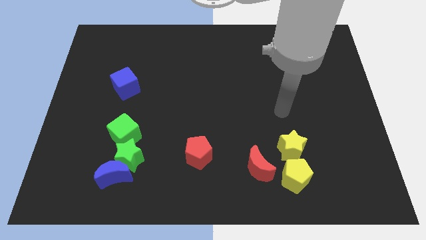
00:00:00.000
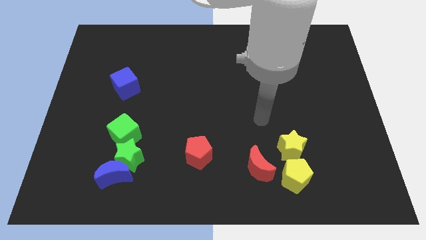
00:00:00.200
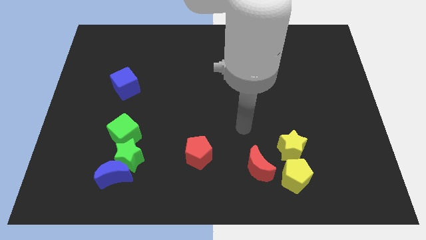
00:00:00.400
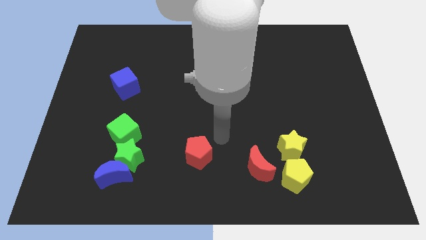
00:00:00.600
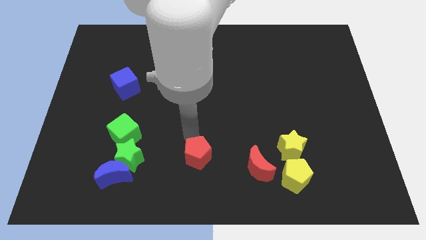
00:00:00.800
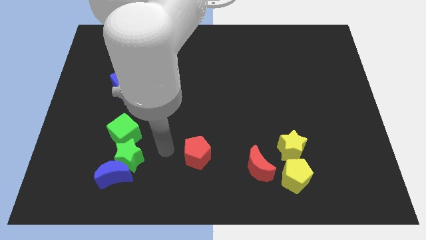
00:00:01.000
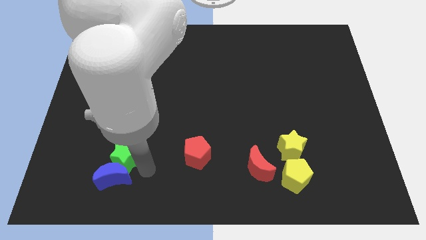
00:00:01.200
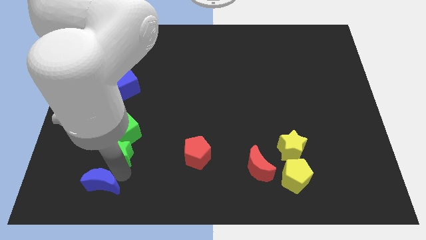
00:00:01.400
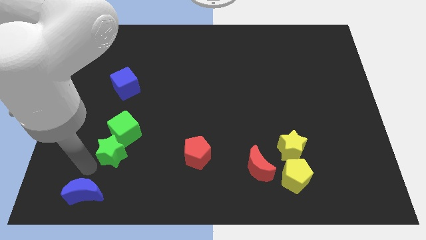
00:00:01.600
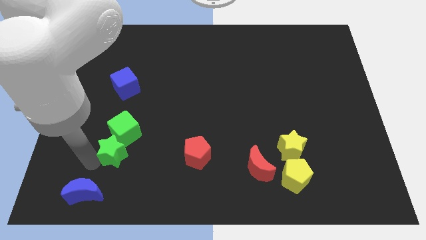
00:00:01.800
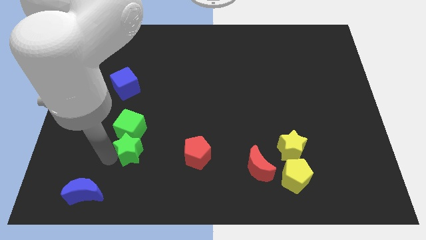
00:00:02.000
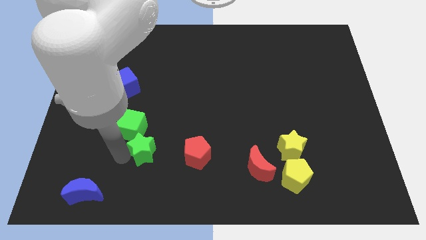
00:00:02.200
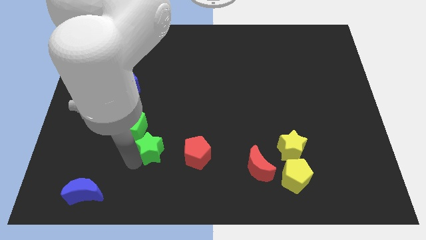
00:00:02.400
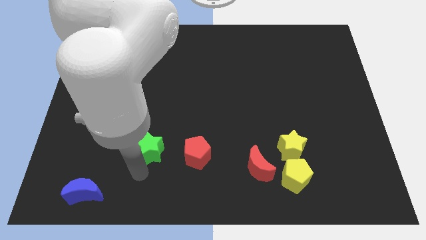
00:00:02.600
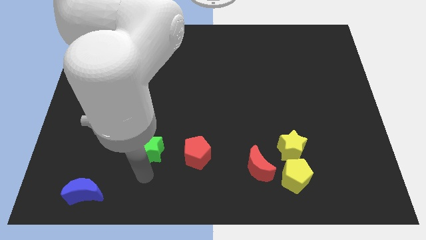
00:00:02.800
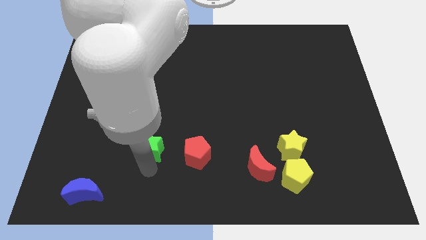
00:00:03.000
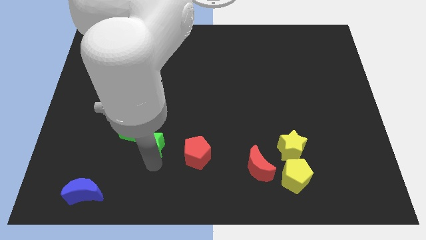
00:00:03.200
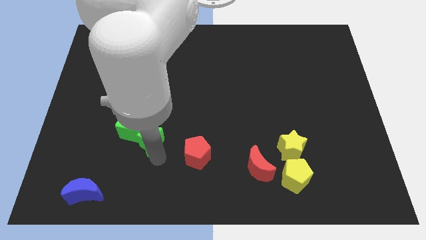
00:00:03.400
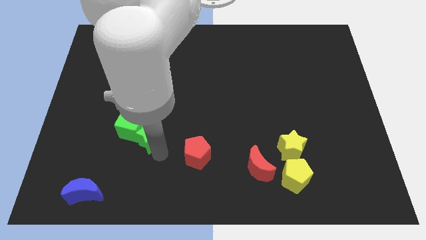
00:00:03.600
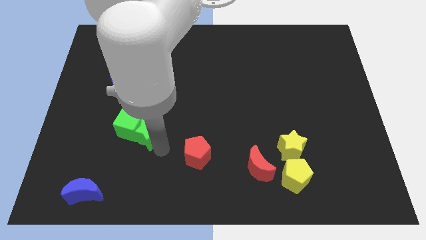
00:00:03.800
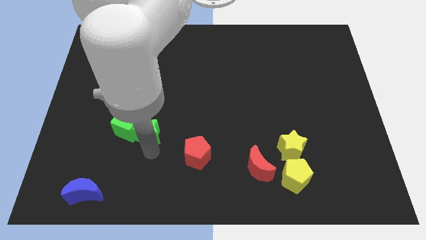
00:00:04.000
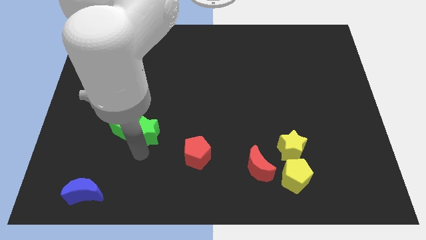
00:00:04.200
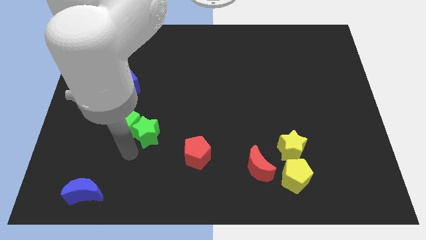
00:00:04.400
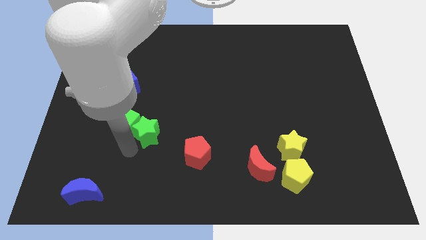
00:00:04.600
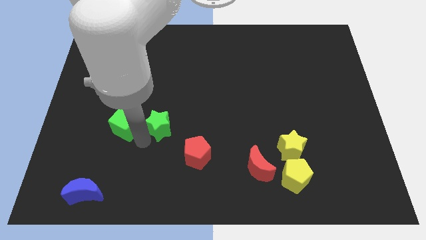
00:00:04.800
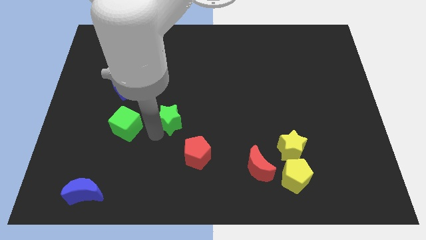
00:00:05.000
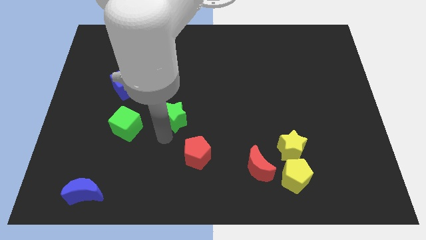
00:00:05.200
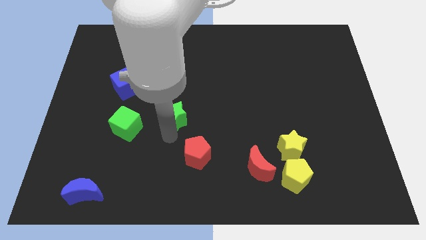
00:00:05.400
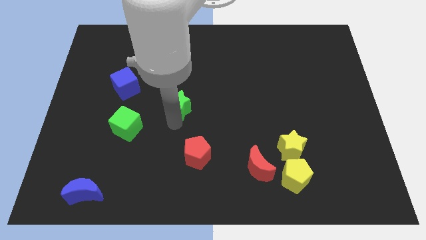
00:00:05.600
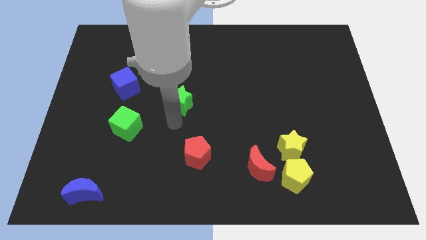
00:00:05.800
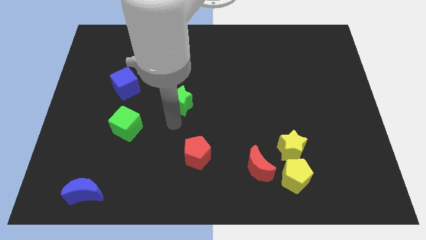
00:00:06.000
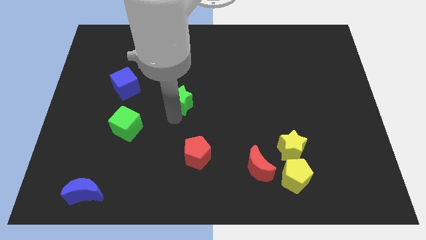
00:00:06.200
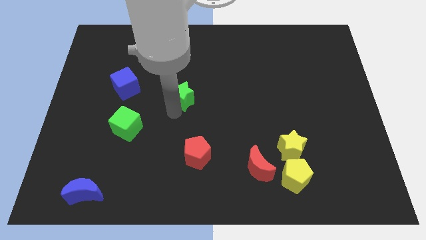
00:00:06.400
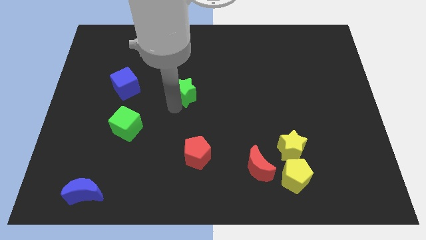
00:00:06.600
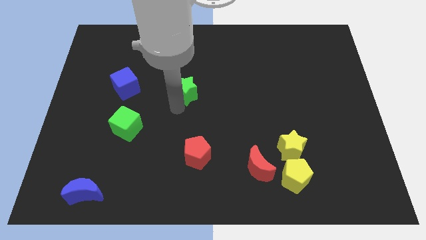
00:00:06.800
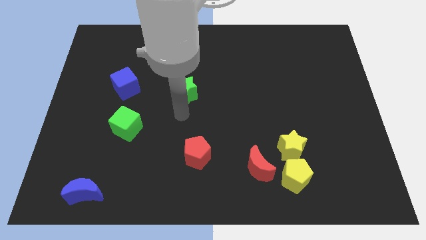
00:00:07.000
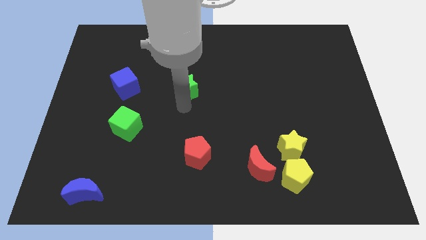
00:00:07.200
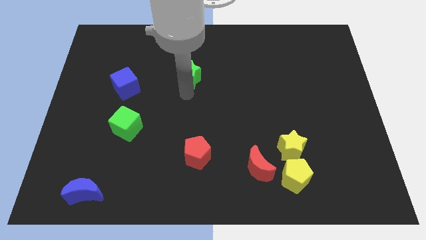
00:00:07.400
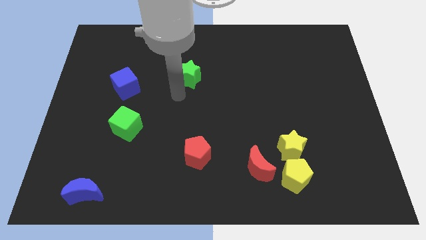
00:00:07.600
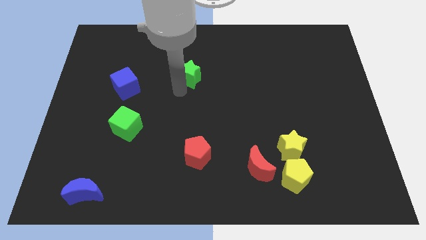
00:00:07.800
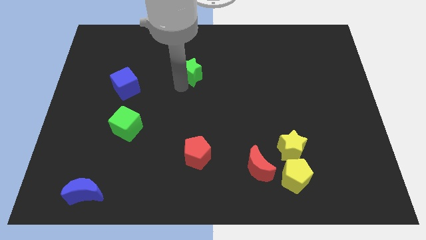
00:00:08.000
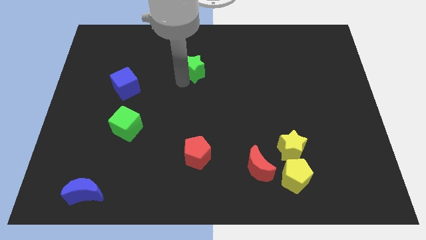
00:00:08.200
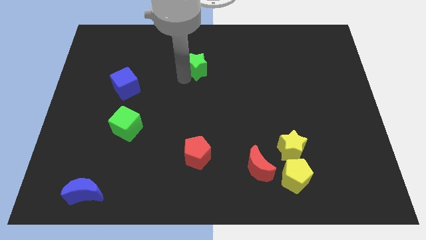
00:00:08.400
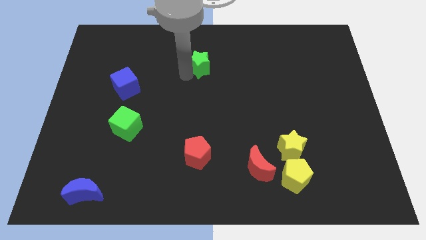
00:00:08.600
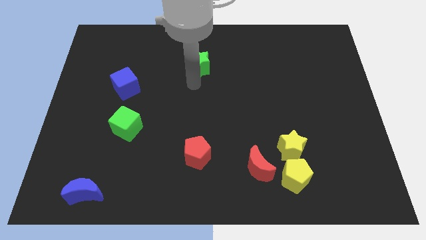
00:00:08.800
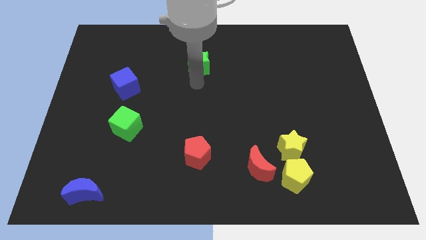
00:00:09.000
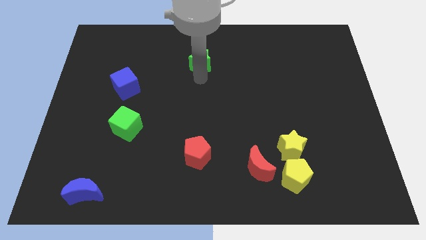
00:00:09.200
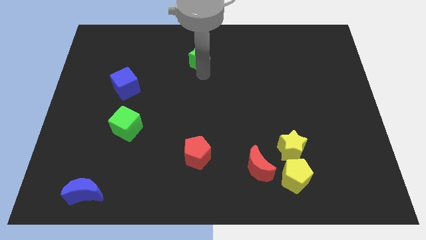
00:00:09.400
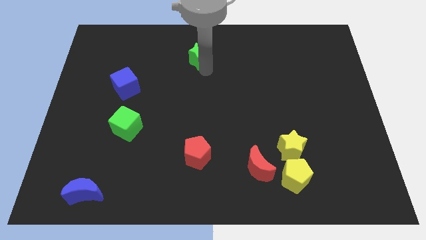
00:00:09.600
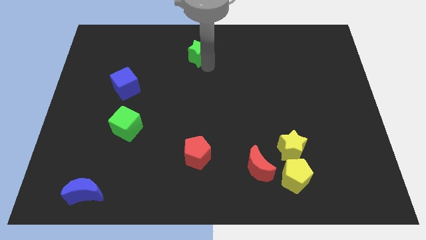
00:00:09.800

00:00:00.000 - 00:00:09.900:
put the green star to the top side

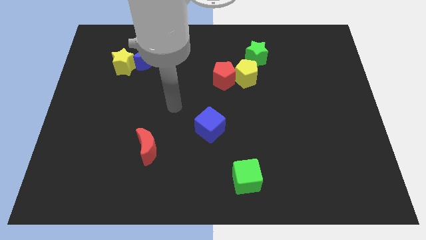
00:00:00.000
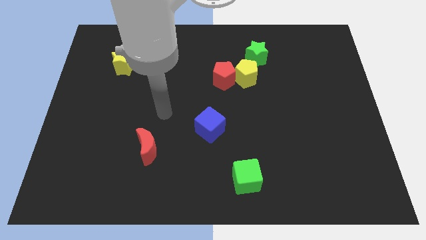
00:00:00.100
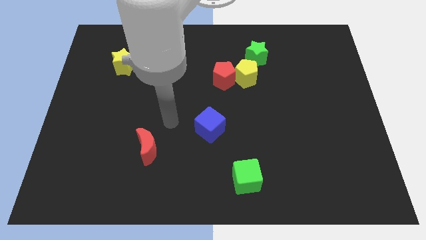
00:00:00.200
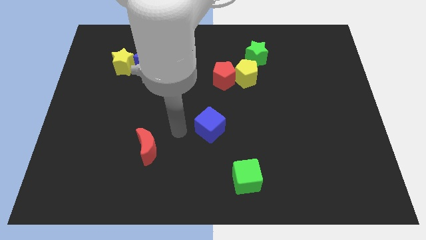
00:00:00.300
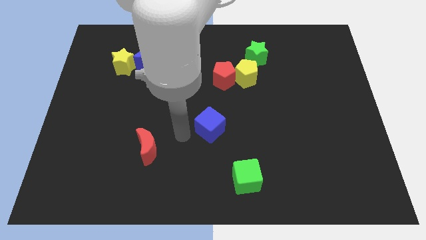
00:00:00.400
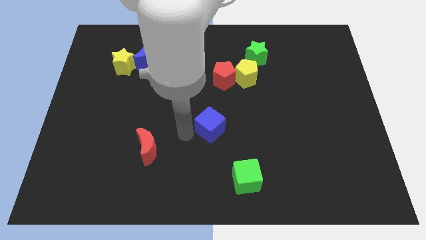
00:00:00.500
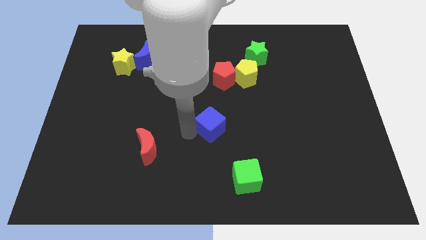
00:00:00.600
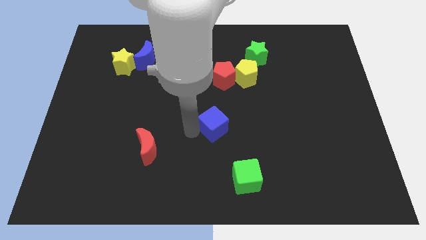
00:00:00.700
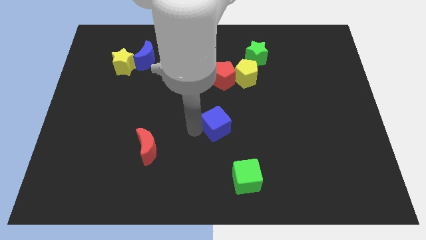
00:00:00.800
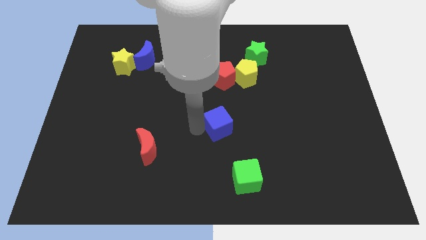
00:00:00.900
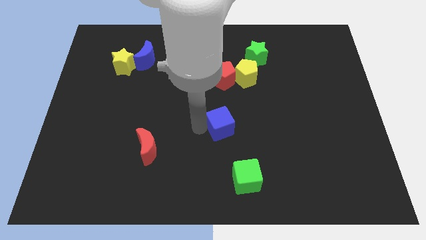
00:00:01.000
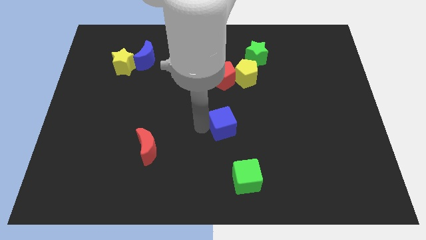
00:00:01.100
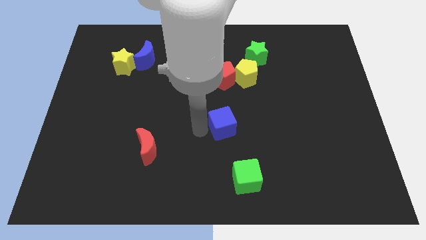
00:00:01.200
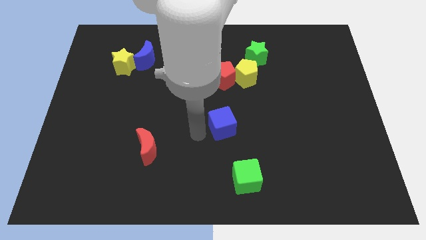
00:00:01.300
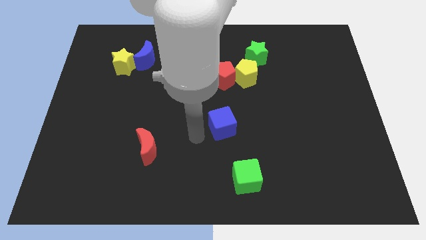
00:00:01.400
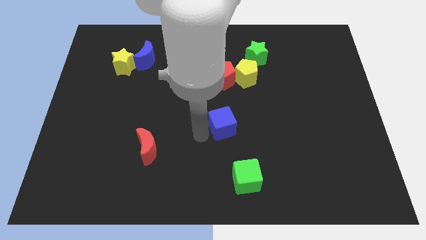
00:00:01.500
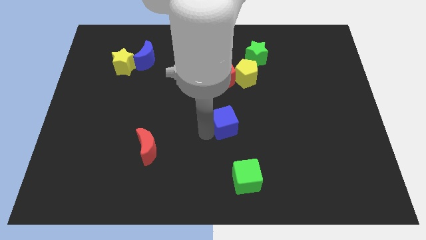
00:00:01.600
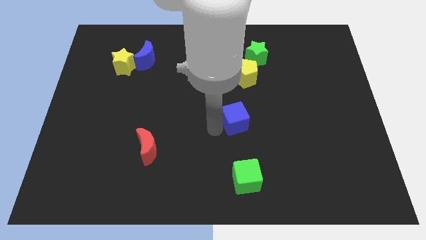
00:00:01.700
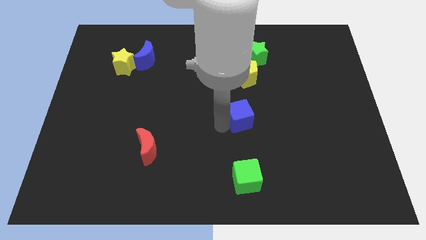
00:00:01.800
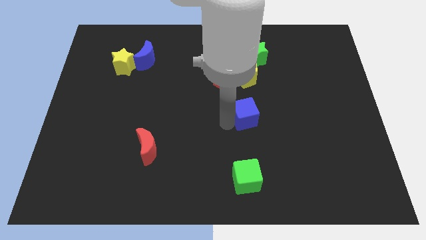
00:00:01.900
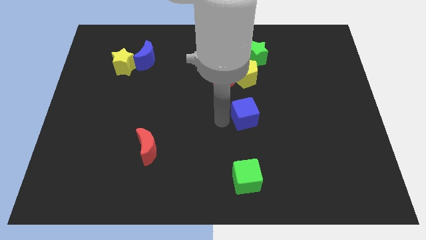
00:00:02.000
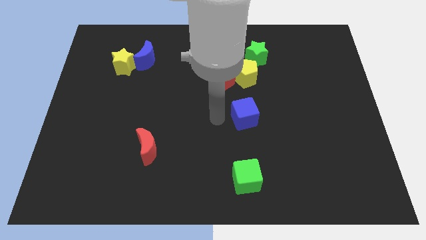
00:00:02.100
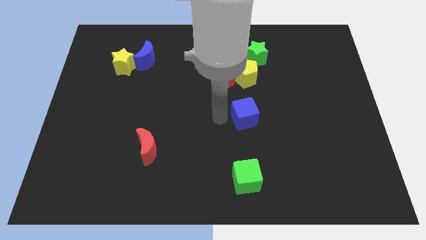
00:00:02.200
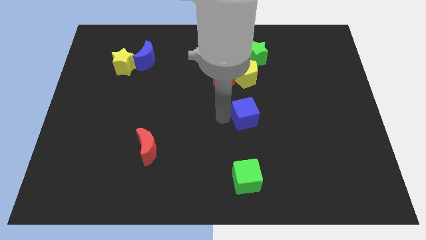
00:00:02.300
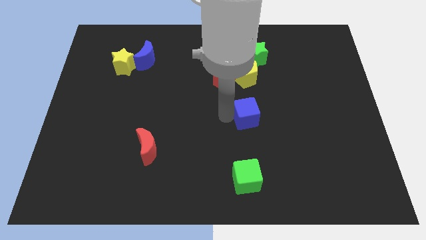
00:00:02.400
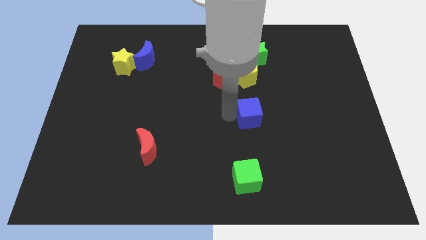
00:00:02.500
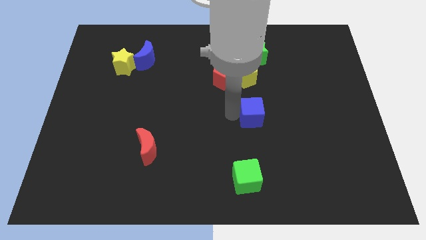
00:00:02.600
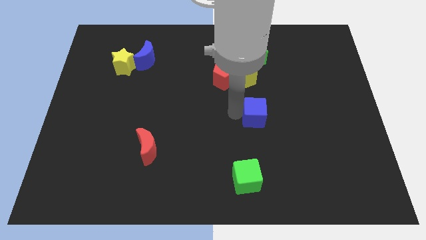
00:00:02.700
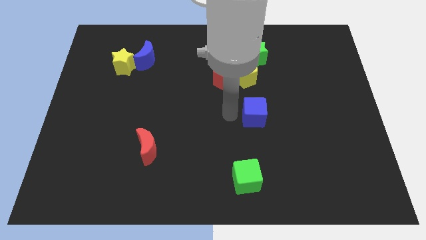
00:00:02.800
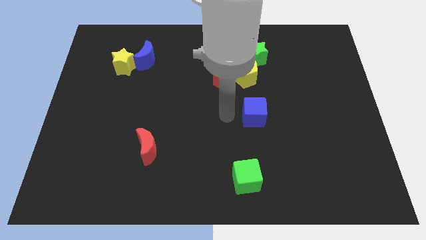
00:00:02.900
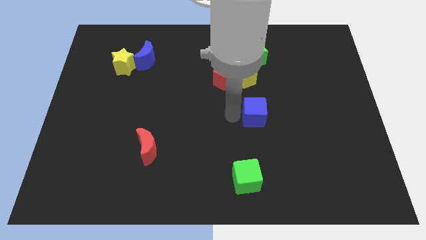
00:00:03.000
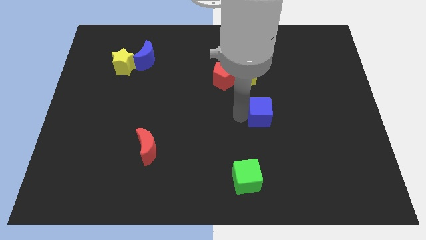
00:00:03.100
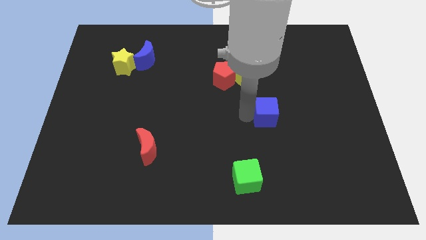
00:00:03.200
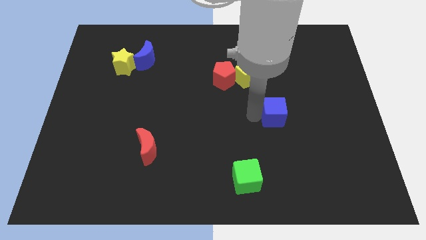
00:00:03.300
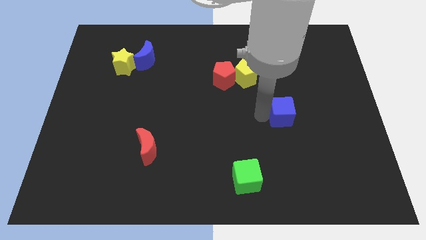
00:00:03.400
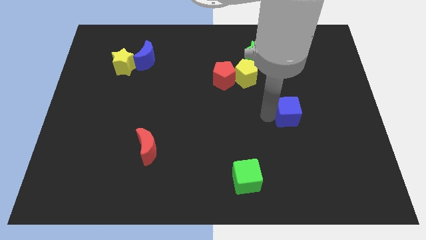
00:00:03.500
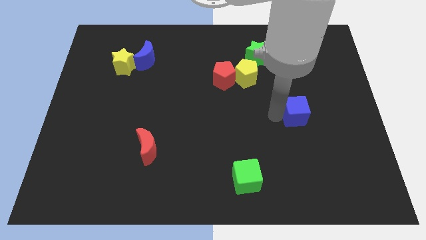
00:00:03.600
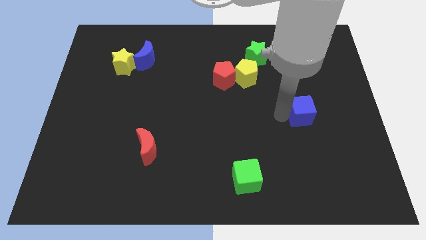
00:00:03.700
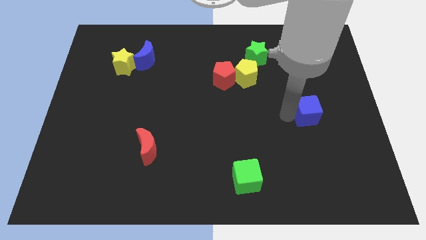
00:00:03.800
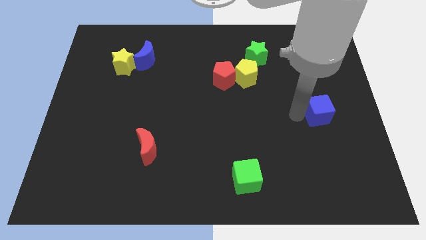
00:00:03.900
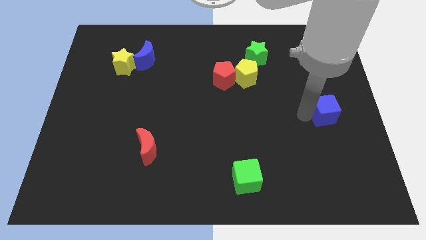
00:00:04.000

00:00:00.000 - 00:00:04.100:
move the blue cube to the center right
